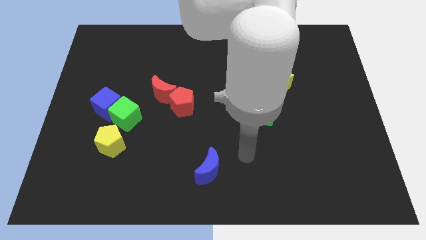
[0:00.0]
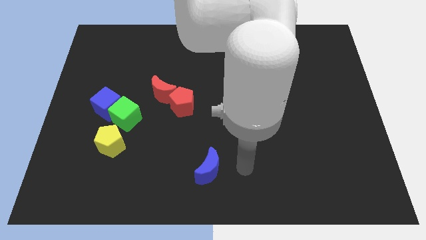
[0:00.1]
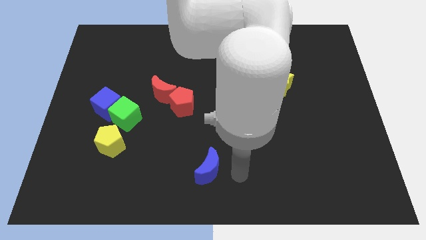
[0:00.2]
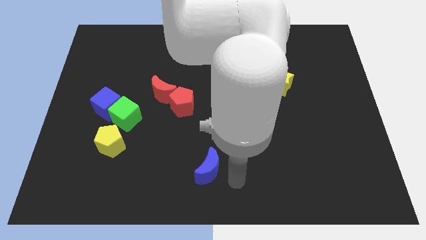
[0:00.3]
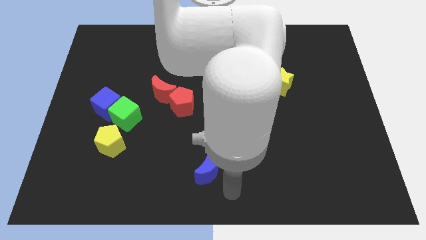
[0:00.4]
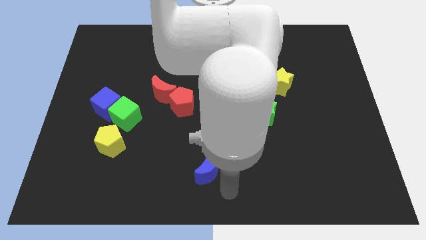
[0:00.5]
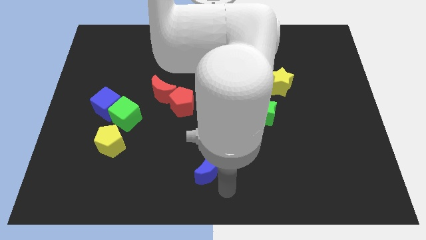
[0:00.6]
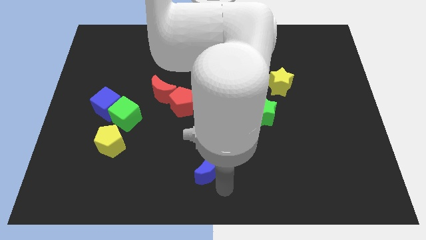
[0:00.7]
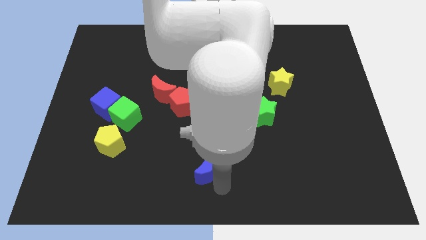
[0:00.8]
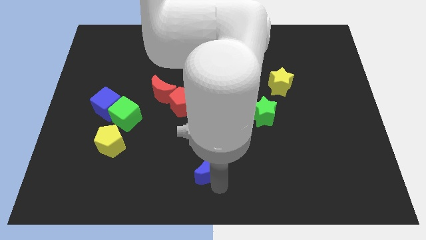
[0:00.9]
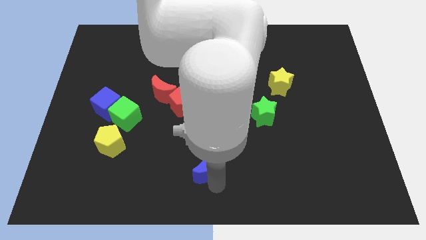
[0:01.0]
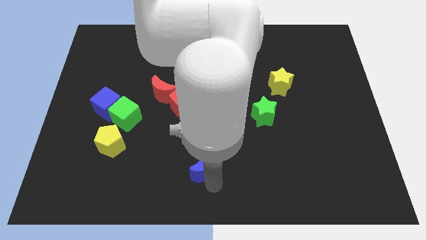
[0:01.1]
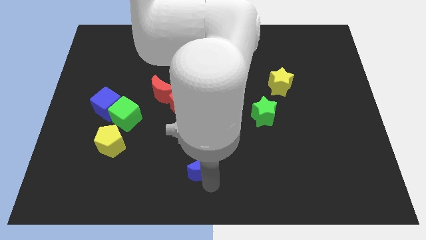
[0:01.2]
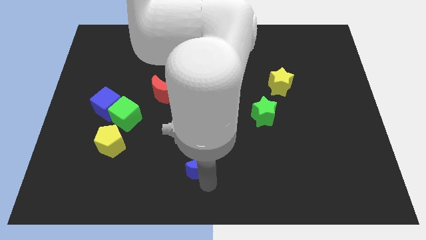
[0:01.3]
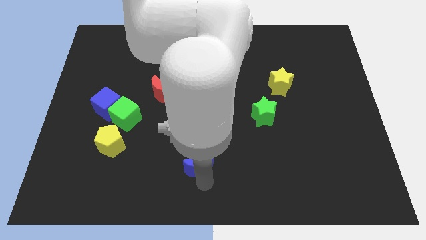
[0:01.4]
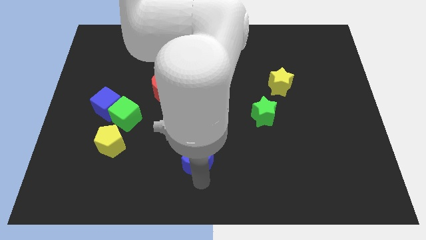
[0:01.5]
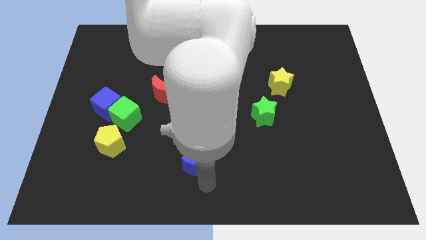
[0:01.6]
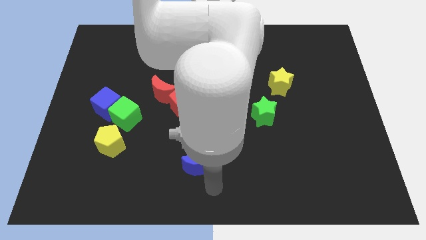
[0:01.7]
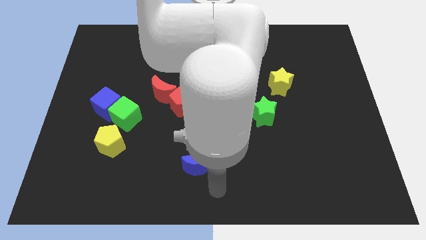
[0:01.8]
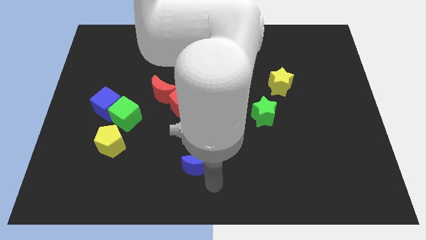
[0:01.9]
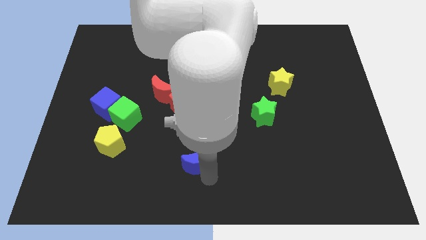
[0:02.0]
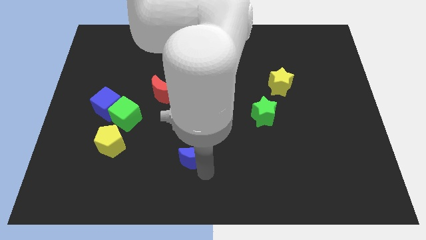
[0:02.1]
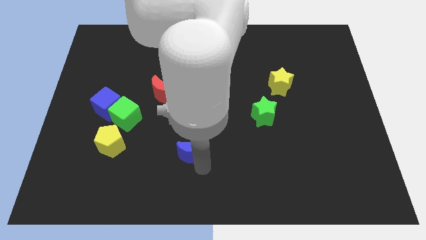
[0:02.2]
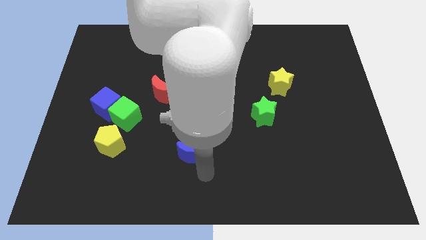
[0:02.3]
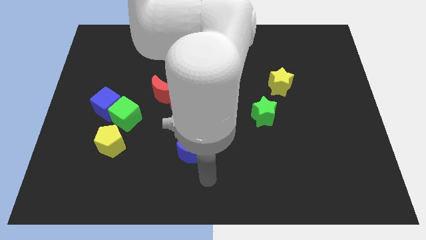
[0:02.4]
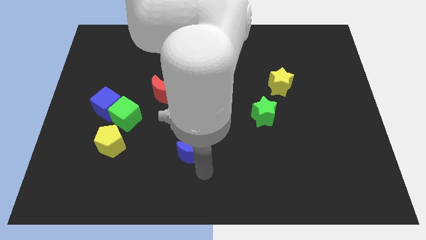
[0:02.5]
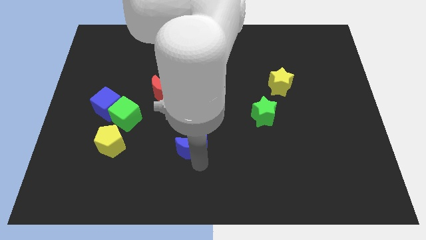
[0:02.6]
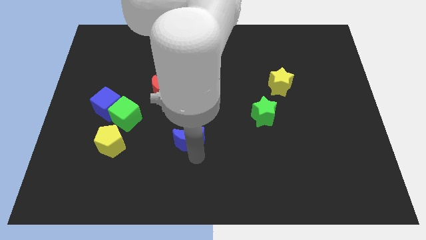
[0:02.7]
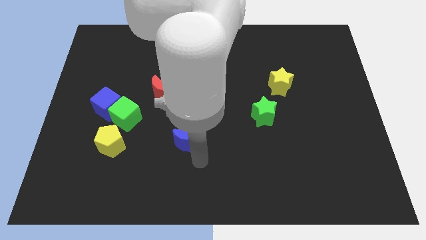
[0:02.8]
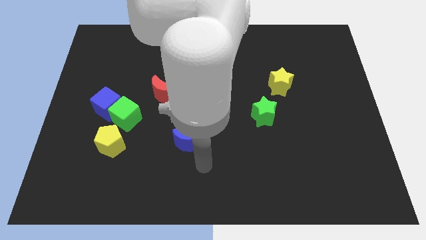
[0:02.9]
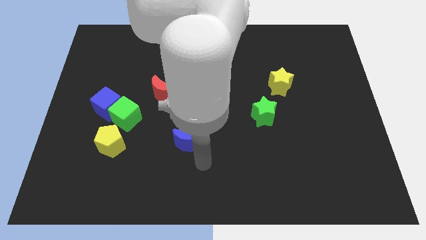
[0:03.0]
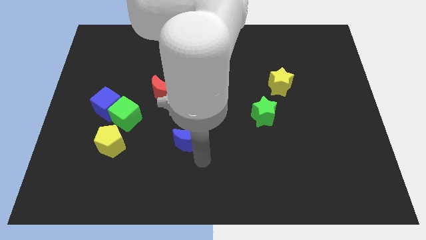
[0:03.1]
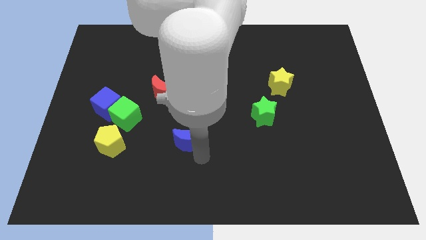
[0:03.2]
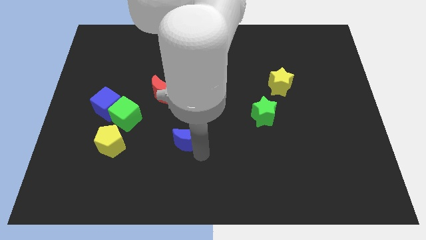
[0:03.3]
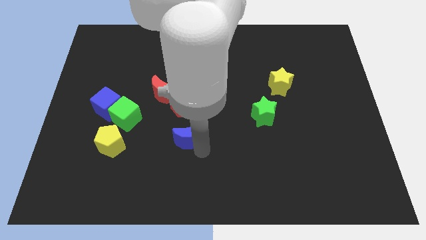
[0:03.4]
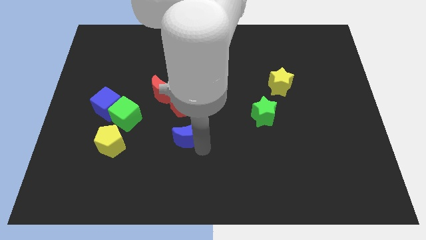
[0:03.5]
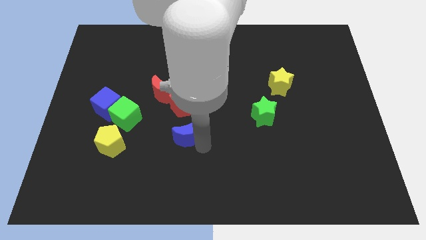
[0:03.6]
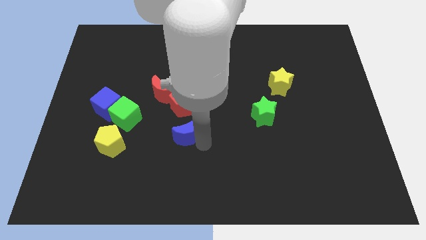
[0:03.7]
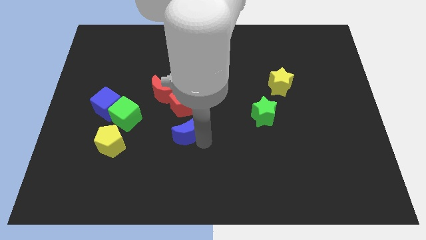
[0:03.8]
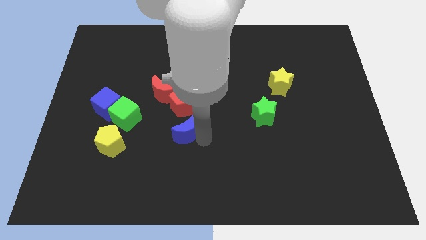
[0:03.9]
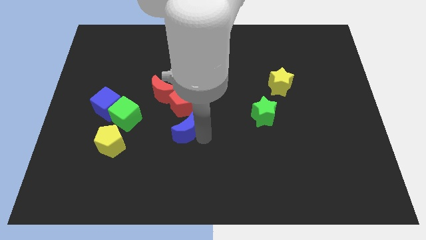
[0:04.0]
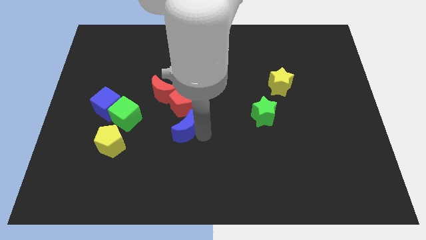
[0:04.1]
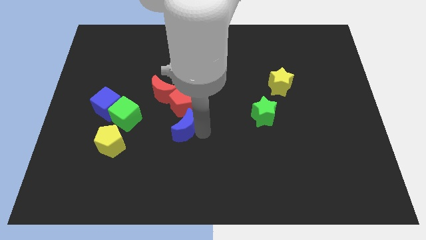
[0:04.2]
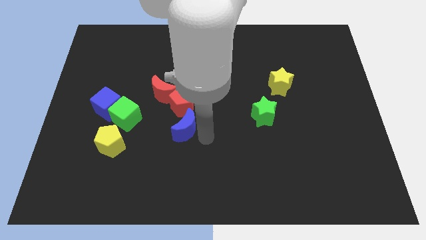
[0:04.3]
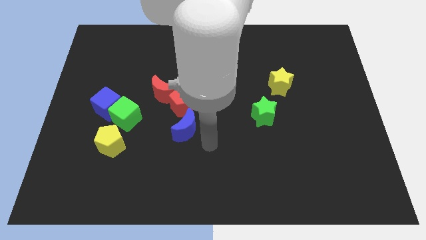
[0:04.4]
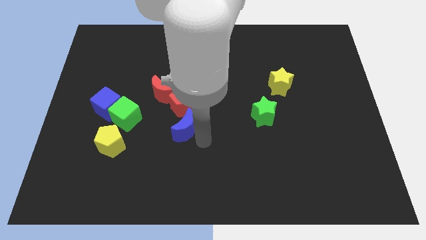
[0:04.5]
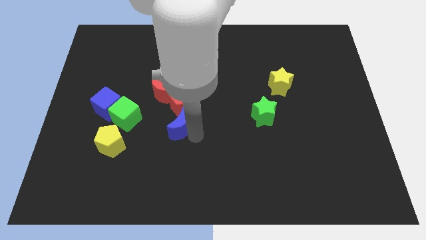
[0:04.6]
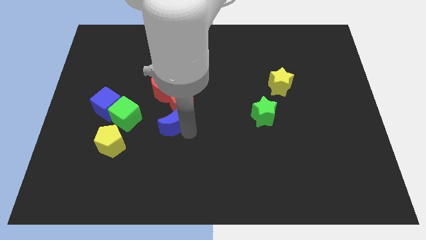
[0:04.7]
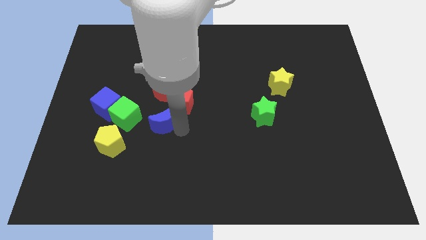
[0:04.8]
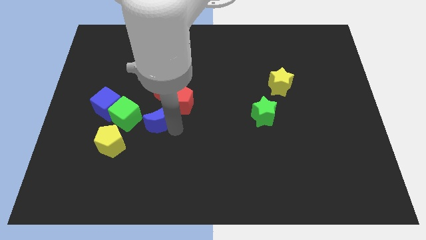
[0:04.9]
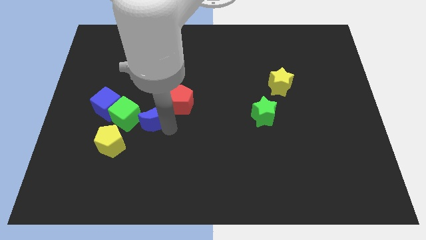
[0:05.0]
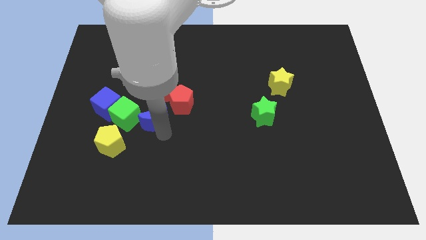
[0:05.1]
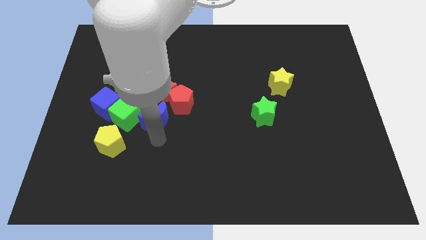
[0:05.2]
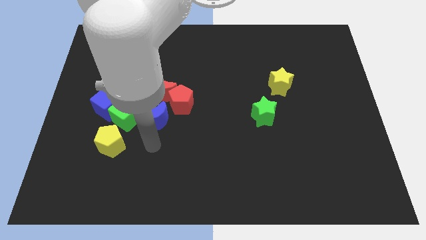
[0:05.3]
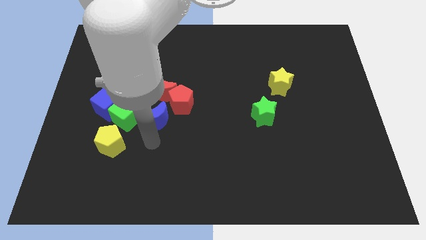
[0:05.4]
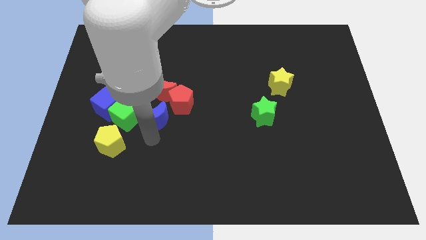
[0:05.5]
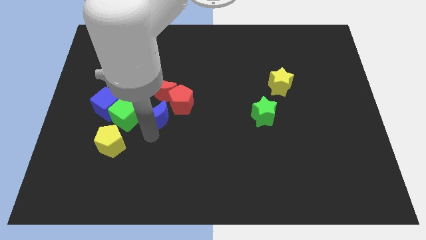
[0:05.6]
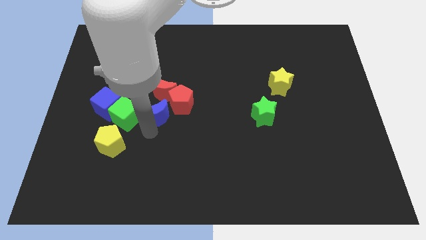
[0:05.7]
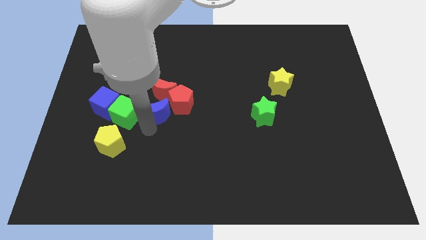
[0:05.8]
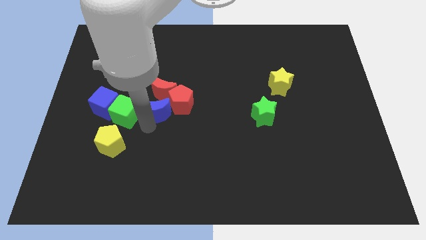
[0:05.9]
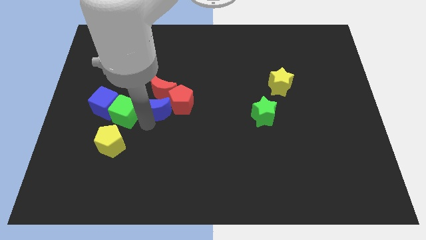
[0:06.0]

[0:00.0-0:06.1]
put the blue moon towards the red moon

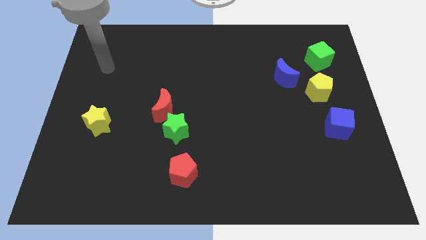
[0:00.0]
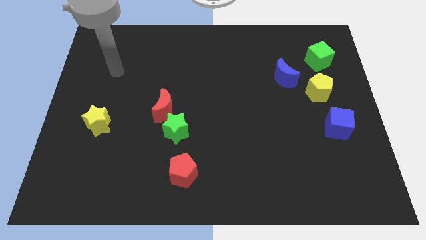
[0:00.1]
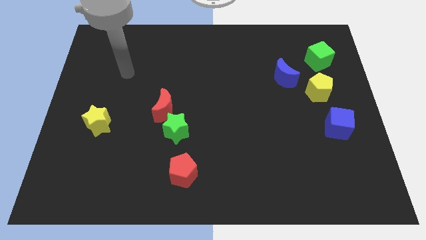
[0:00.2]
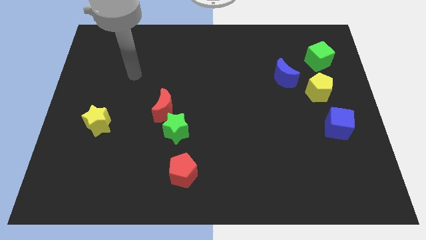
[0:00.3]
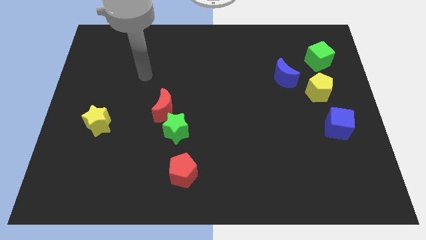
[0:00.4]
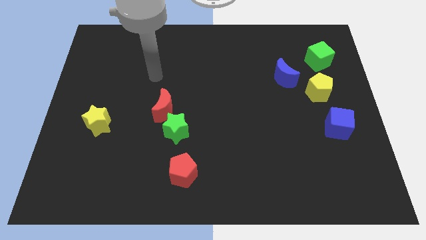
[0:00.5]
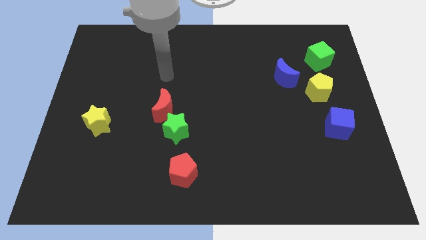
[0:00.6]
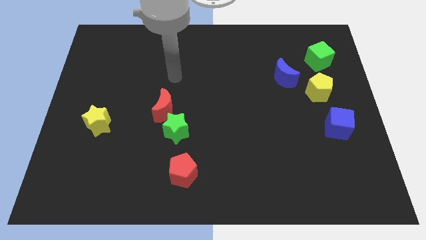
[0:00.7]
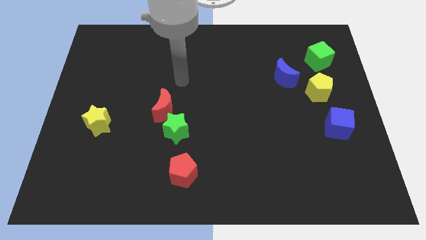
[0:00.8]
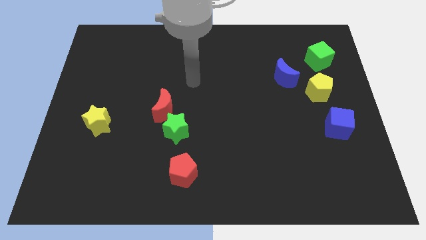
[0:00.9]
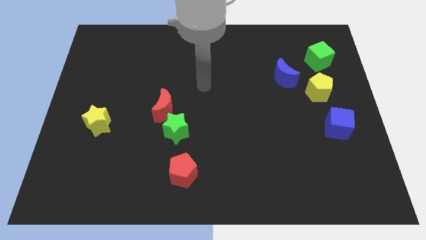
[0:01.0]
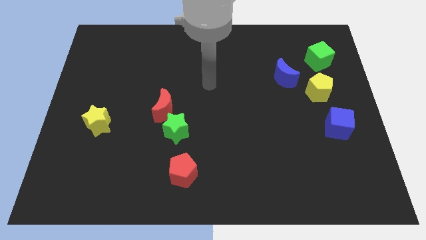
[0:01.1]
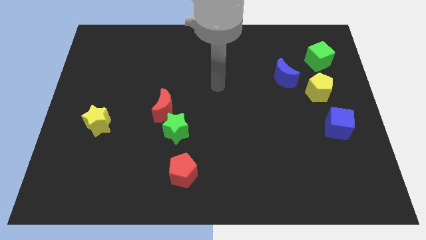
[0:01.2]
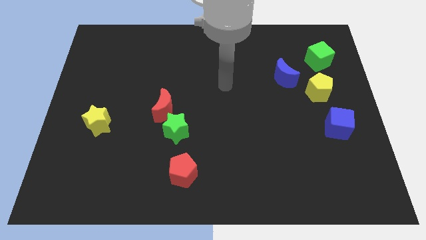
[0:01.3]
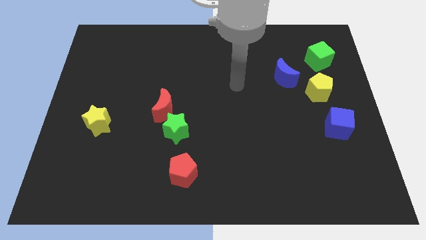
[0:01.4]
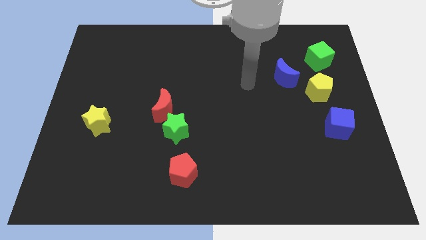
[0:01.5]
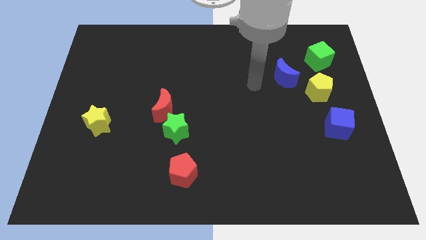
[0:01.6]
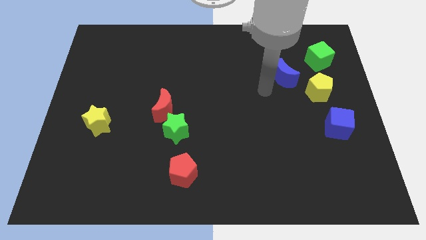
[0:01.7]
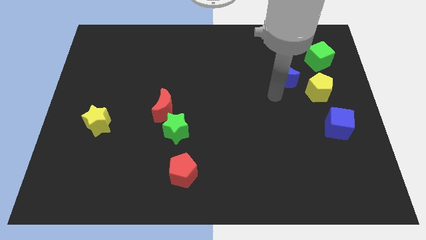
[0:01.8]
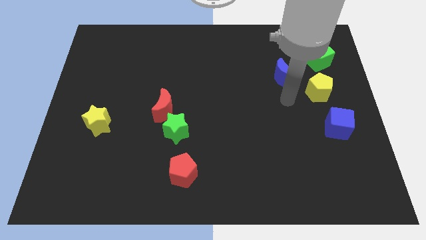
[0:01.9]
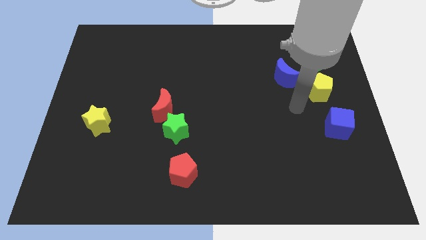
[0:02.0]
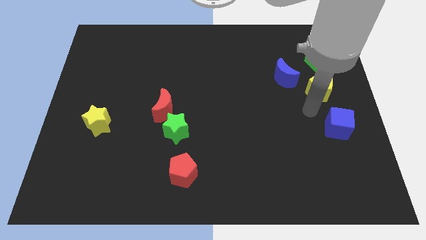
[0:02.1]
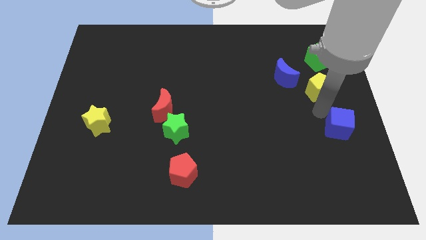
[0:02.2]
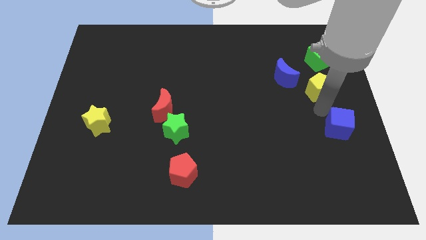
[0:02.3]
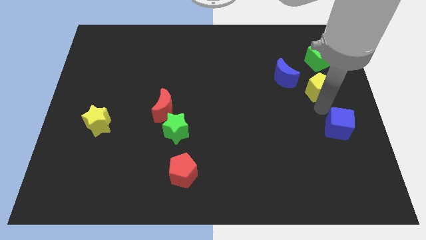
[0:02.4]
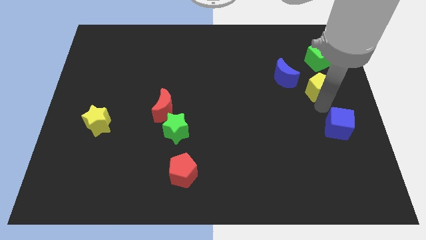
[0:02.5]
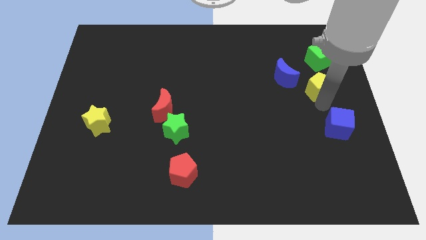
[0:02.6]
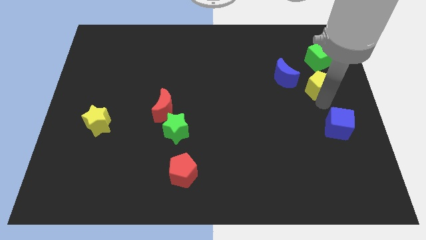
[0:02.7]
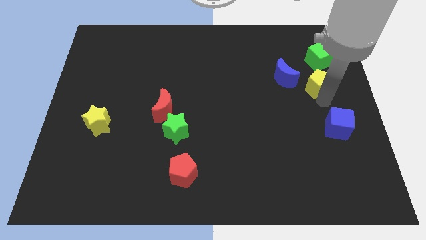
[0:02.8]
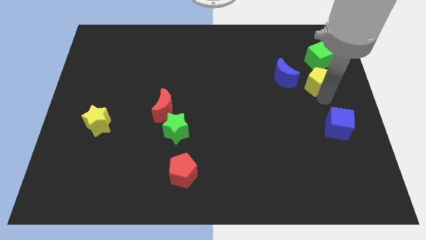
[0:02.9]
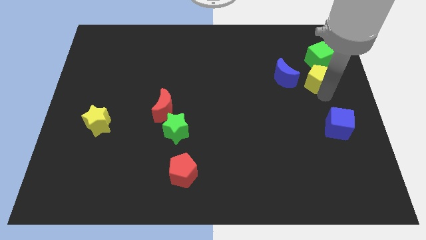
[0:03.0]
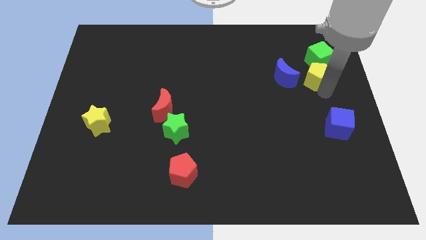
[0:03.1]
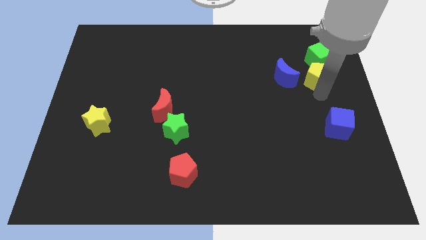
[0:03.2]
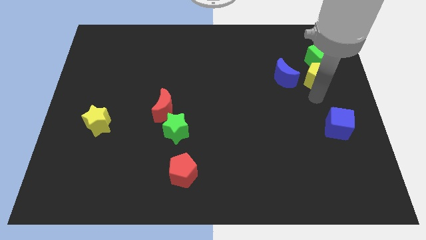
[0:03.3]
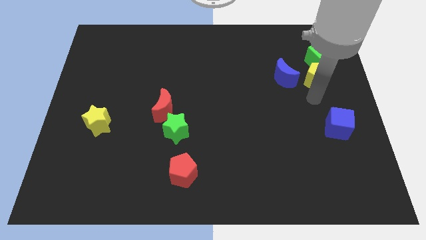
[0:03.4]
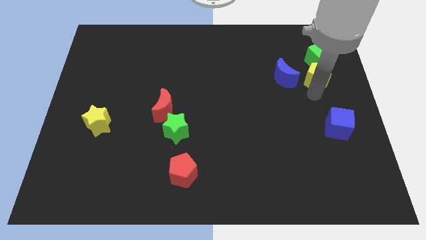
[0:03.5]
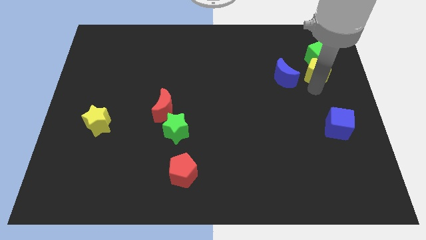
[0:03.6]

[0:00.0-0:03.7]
put the yellow pentagon close to the green cube
